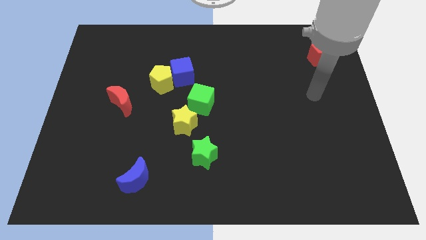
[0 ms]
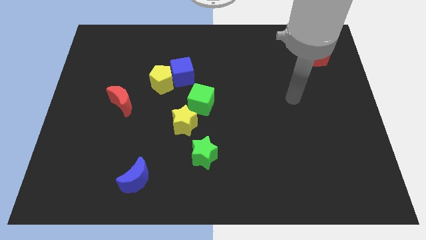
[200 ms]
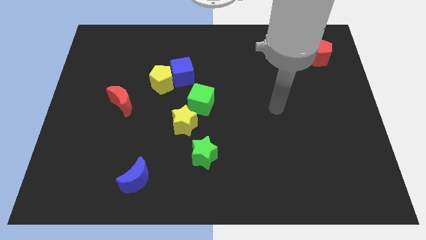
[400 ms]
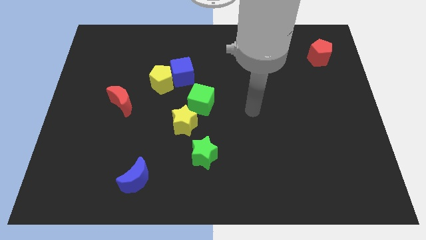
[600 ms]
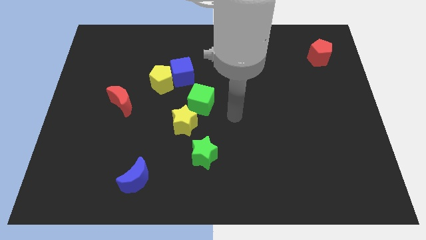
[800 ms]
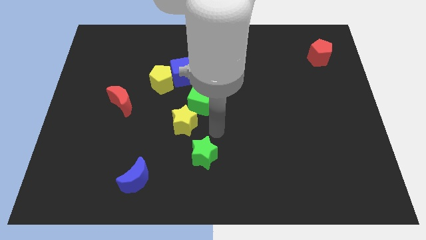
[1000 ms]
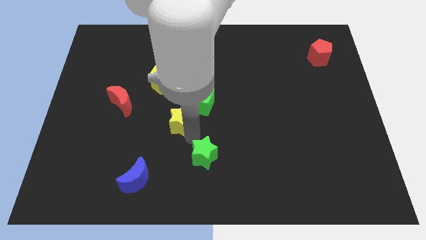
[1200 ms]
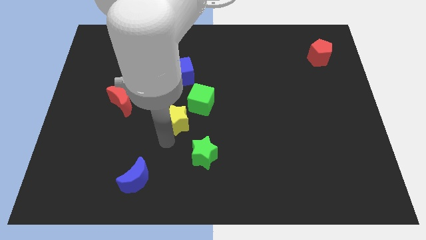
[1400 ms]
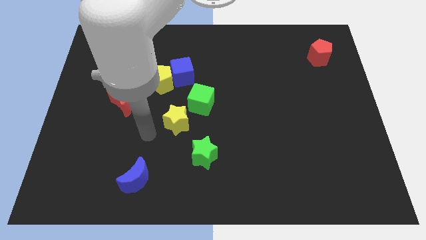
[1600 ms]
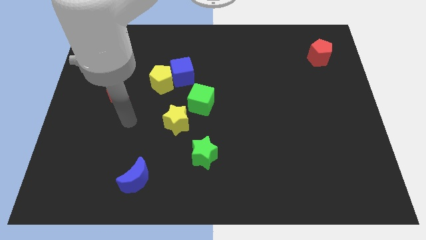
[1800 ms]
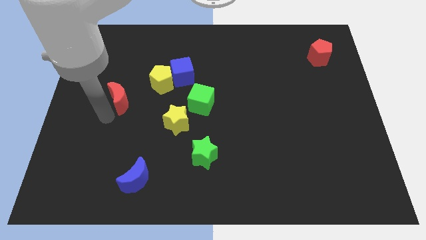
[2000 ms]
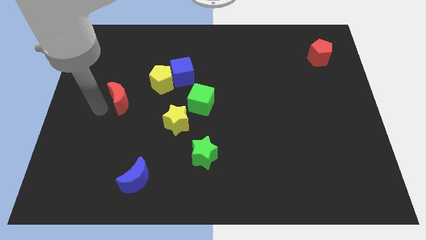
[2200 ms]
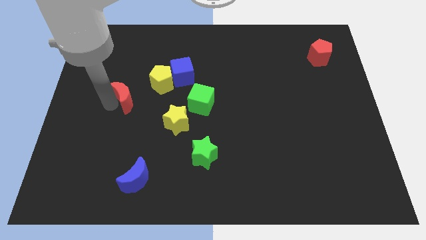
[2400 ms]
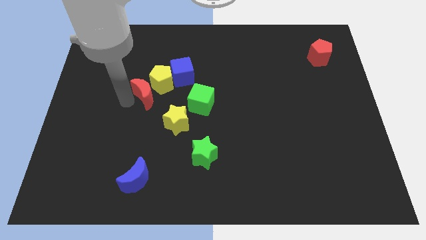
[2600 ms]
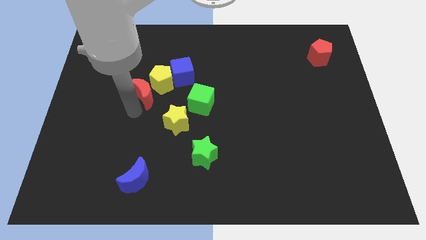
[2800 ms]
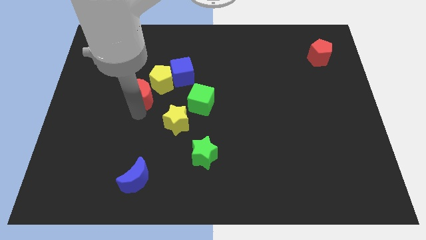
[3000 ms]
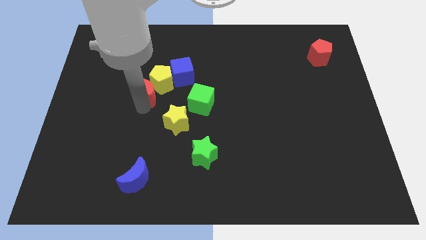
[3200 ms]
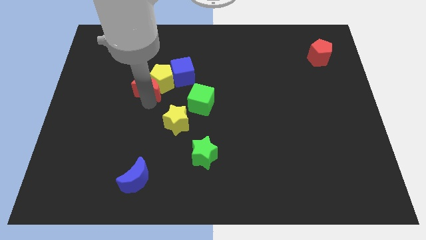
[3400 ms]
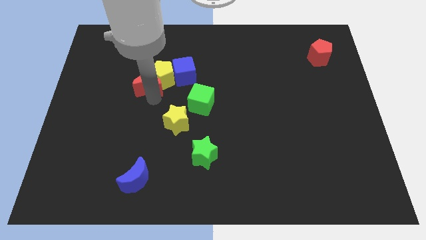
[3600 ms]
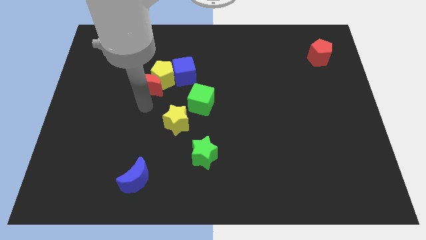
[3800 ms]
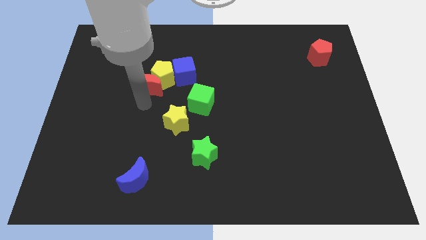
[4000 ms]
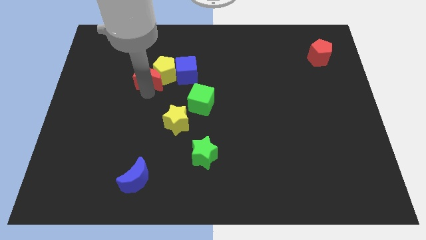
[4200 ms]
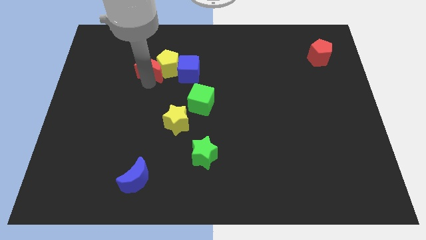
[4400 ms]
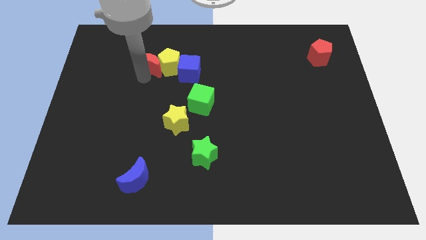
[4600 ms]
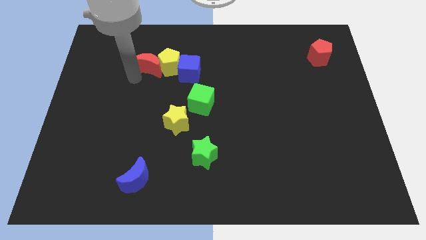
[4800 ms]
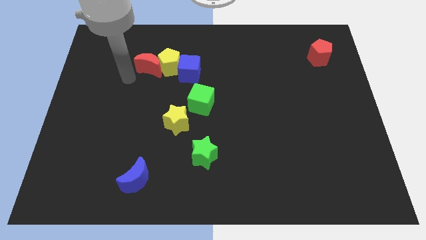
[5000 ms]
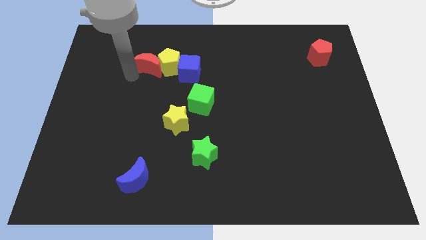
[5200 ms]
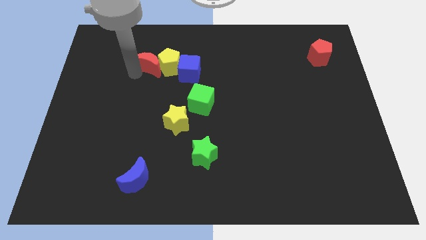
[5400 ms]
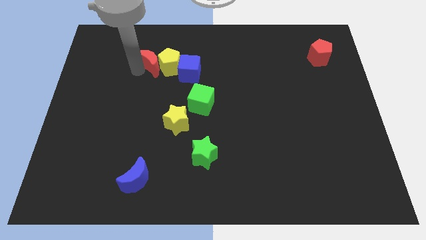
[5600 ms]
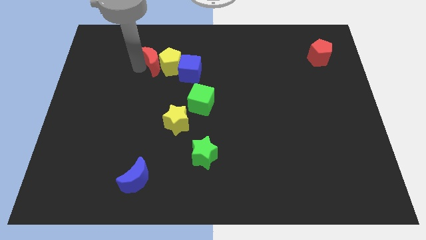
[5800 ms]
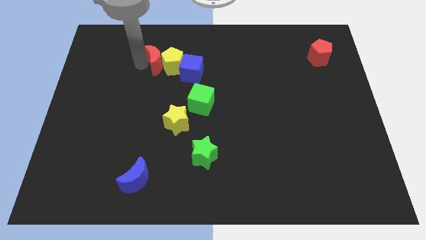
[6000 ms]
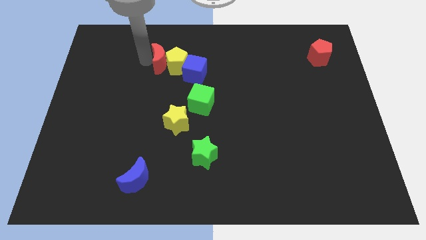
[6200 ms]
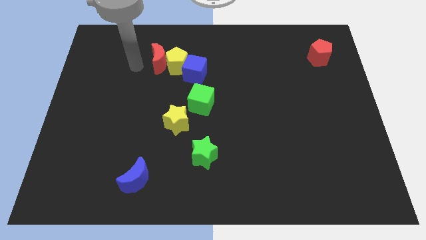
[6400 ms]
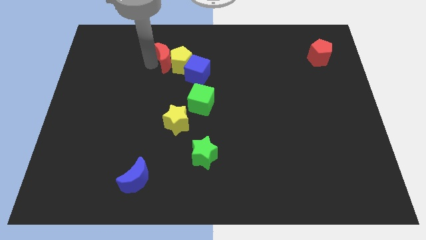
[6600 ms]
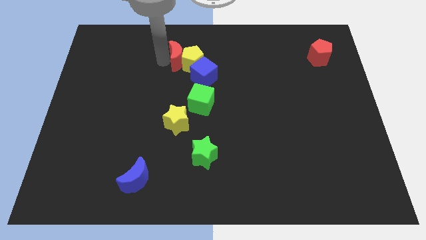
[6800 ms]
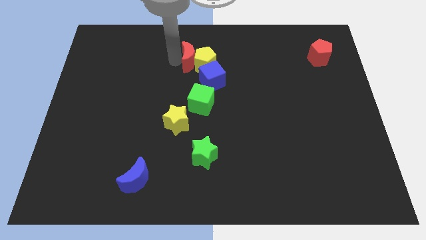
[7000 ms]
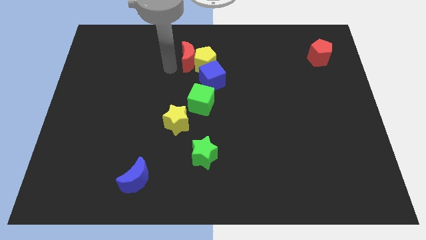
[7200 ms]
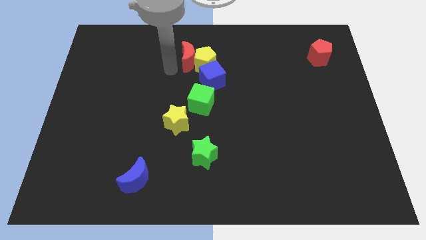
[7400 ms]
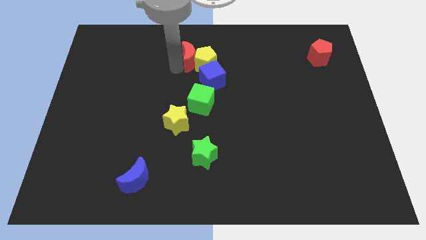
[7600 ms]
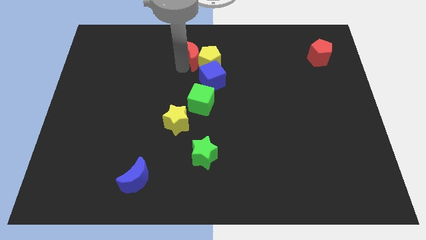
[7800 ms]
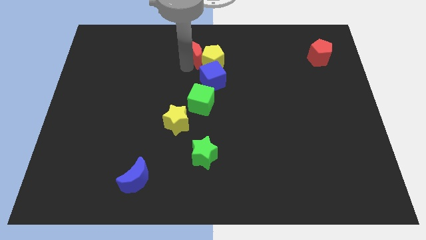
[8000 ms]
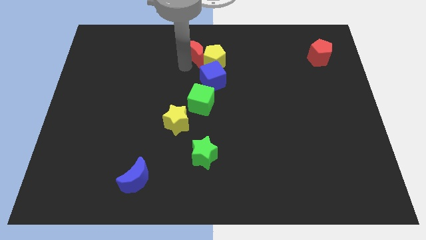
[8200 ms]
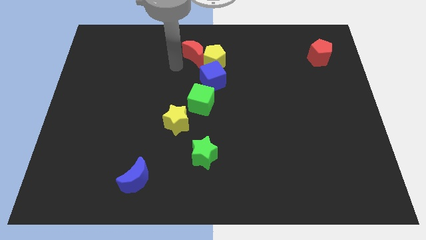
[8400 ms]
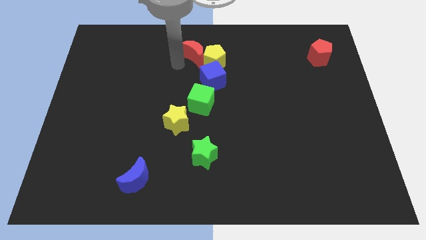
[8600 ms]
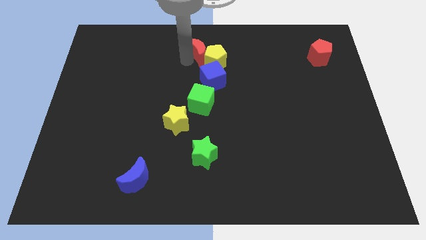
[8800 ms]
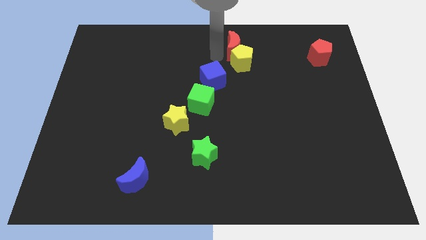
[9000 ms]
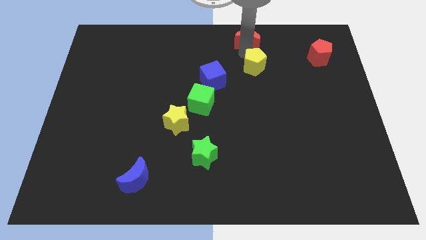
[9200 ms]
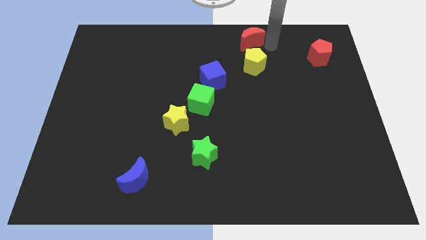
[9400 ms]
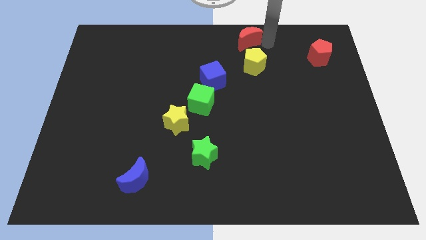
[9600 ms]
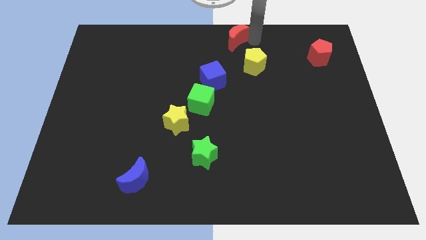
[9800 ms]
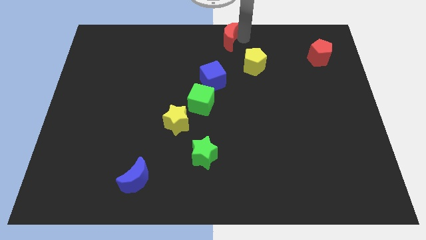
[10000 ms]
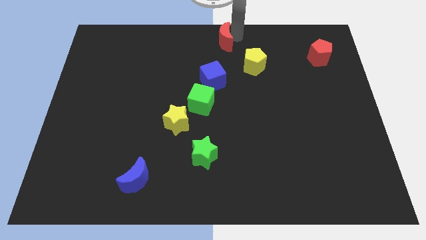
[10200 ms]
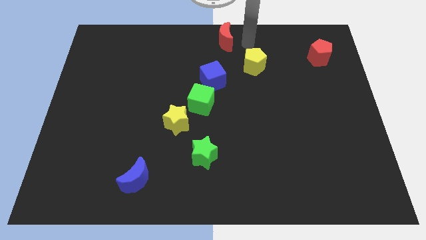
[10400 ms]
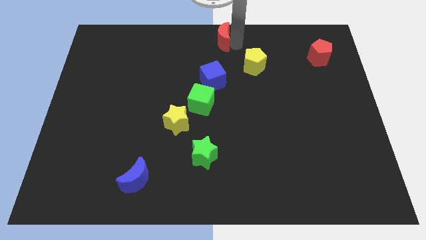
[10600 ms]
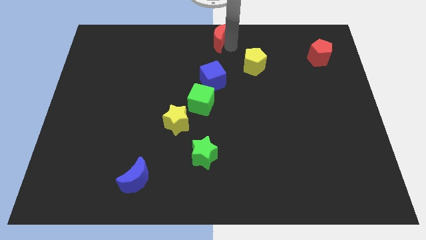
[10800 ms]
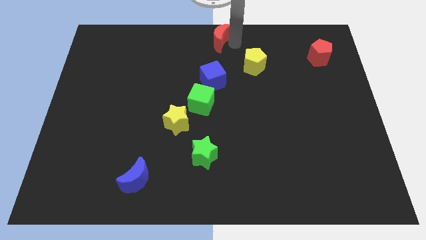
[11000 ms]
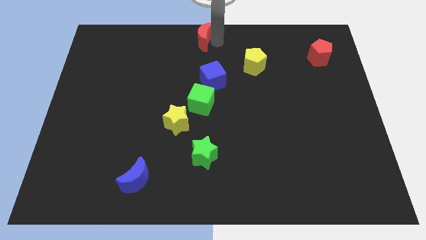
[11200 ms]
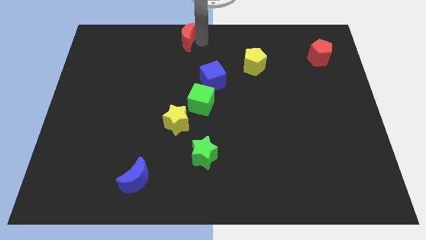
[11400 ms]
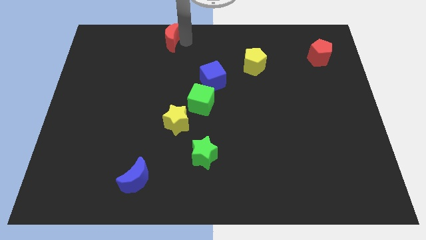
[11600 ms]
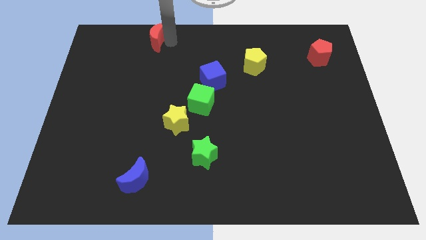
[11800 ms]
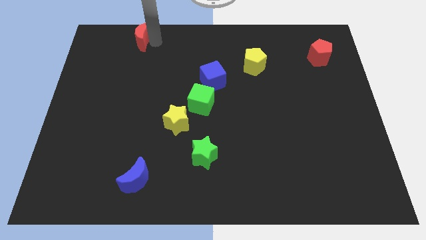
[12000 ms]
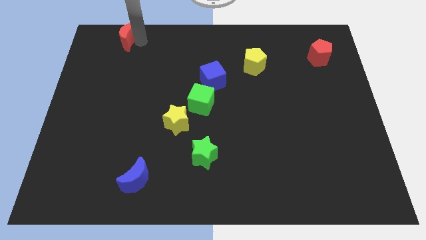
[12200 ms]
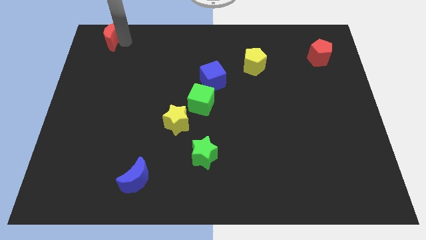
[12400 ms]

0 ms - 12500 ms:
slide the red moon to the top left corner

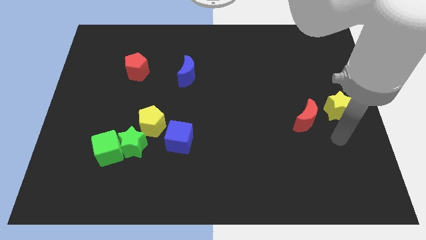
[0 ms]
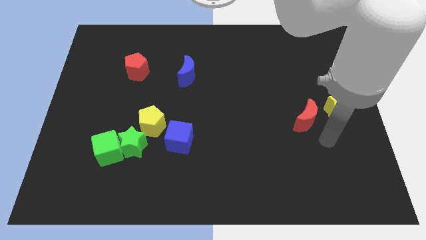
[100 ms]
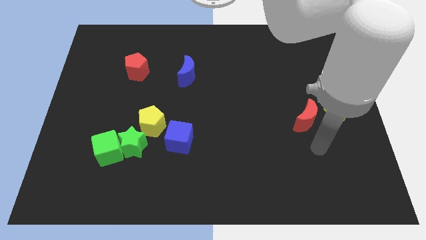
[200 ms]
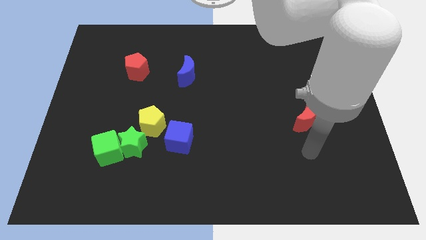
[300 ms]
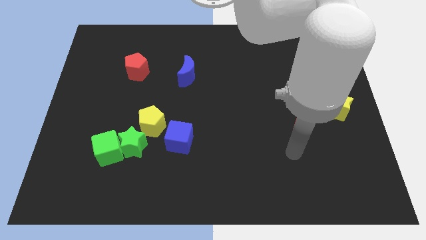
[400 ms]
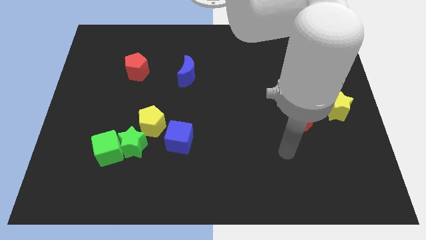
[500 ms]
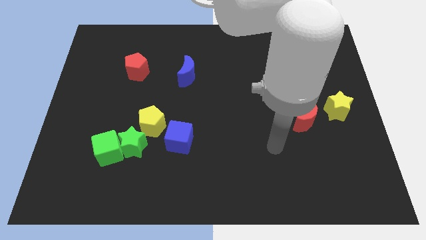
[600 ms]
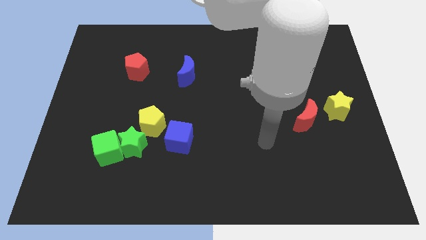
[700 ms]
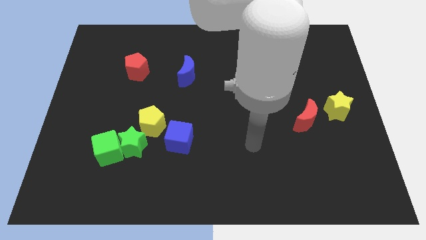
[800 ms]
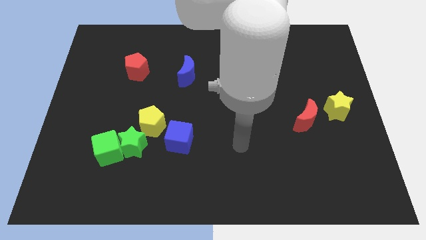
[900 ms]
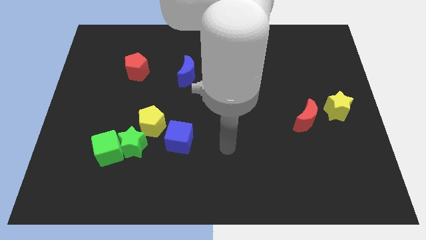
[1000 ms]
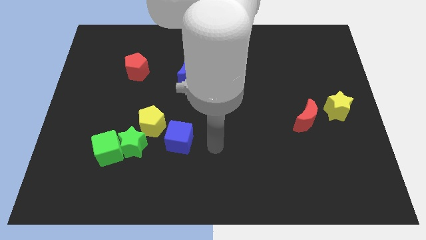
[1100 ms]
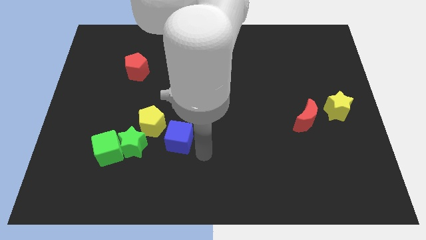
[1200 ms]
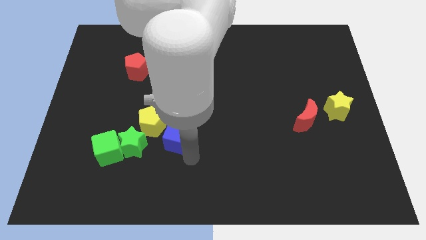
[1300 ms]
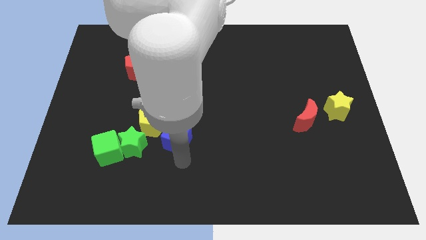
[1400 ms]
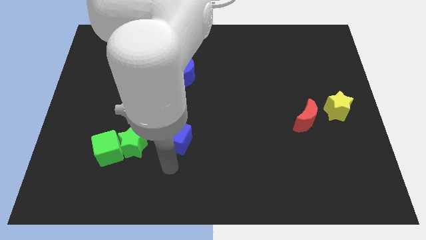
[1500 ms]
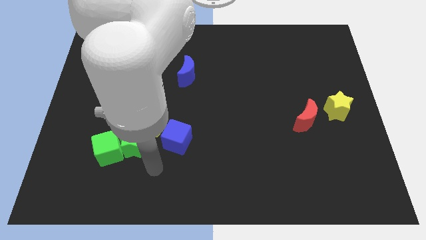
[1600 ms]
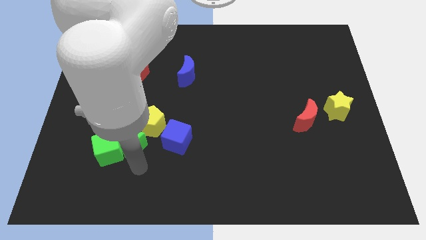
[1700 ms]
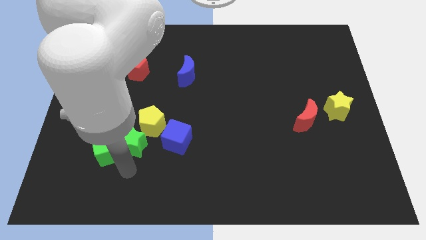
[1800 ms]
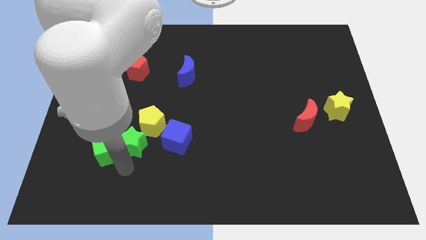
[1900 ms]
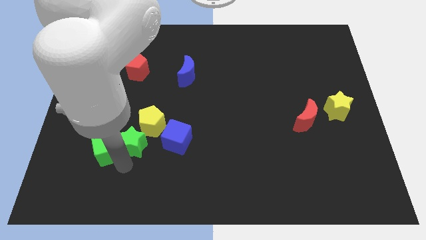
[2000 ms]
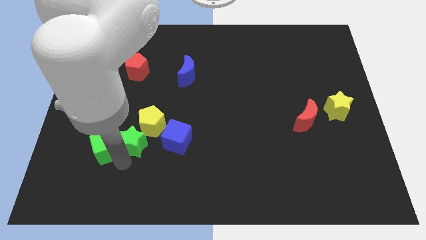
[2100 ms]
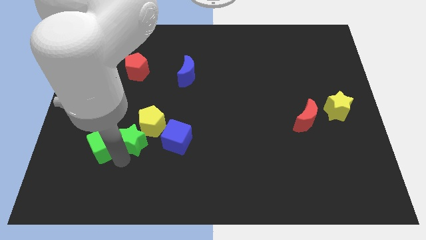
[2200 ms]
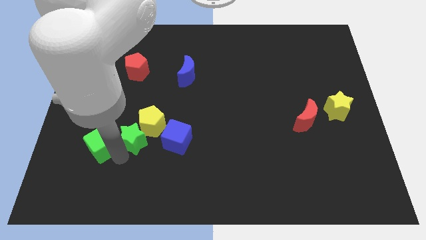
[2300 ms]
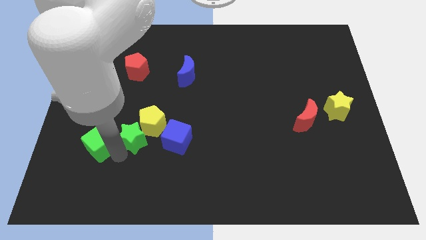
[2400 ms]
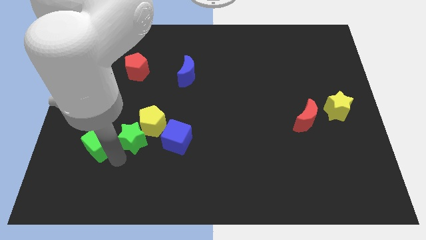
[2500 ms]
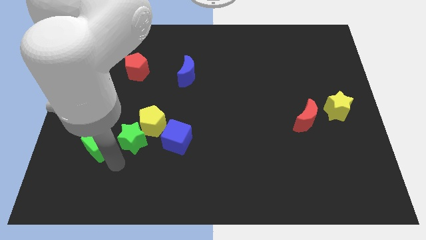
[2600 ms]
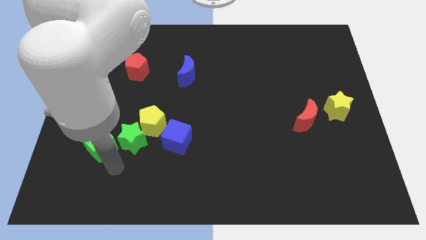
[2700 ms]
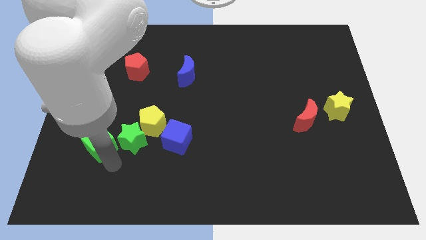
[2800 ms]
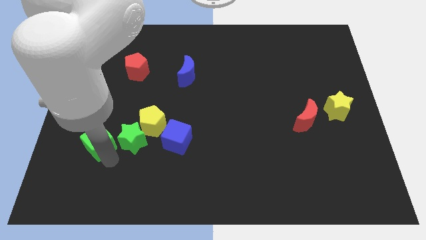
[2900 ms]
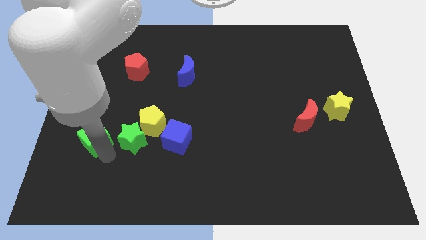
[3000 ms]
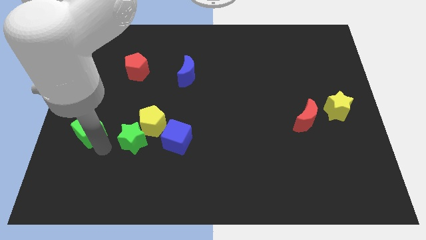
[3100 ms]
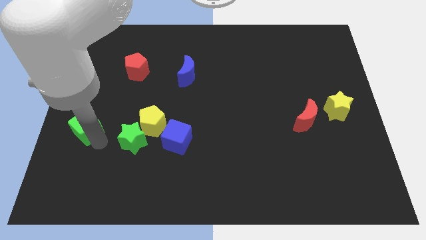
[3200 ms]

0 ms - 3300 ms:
slide the green cube to the center left
